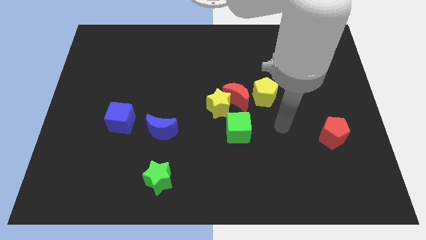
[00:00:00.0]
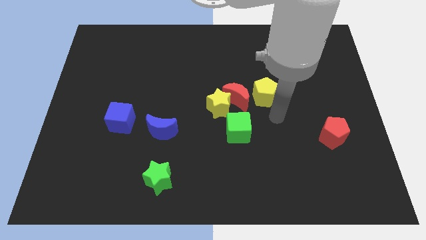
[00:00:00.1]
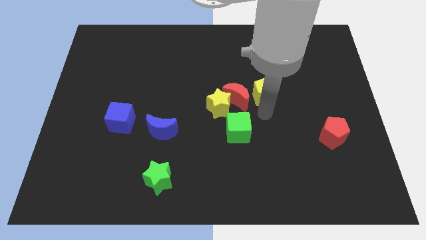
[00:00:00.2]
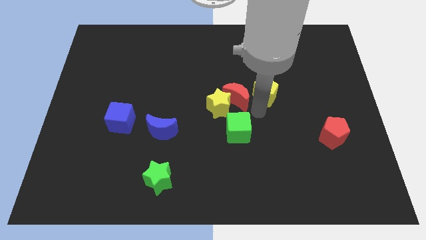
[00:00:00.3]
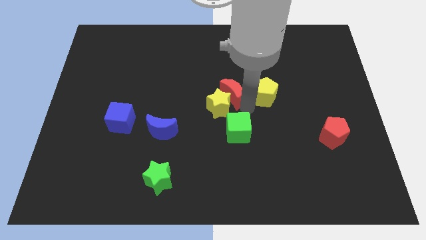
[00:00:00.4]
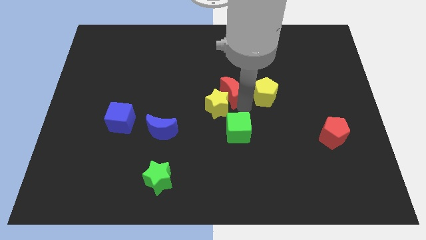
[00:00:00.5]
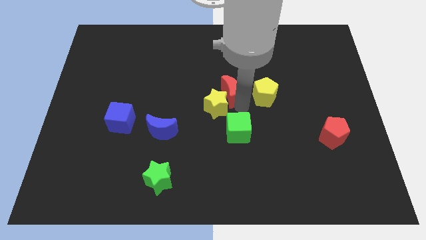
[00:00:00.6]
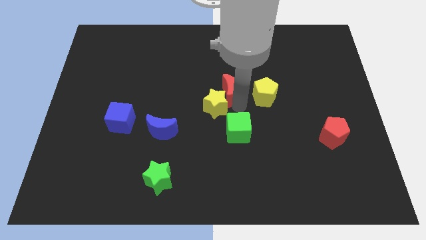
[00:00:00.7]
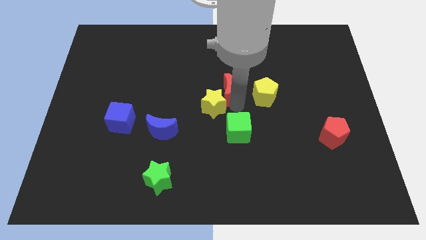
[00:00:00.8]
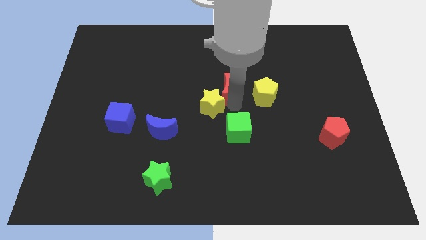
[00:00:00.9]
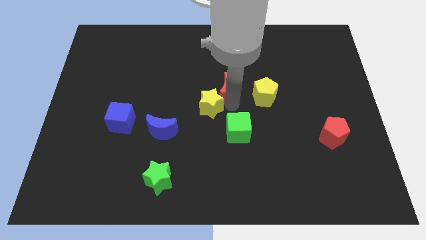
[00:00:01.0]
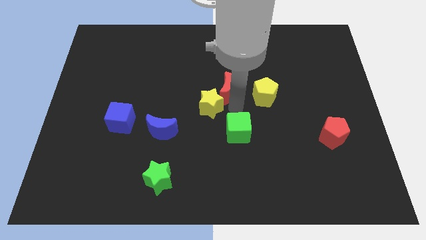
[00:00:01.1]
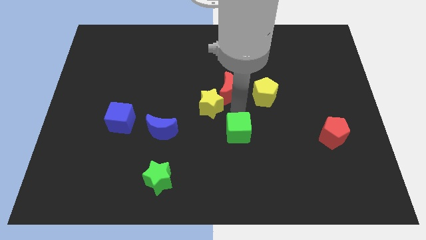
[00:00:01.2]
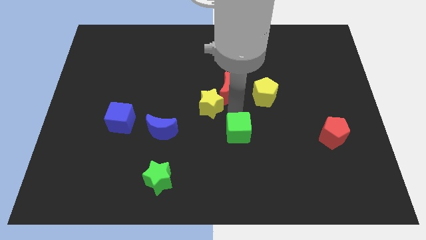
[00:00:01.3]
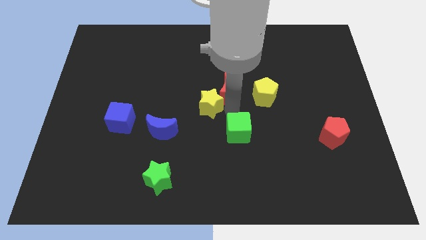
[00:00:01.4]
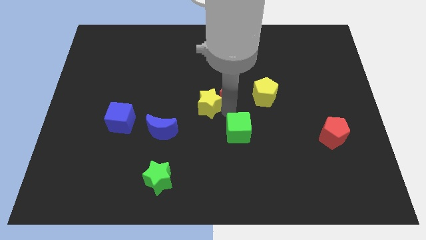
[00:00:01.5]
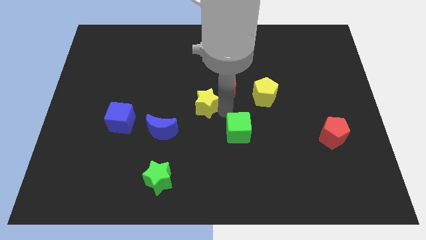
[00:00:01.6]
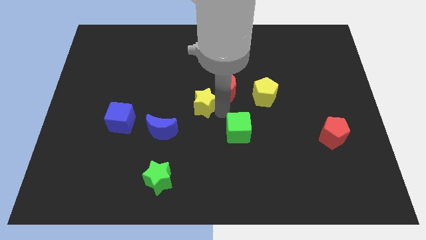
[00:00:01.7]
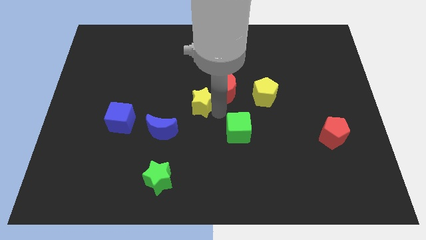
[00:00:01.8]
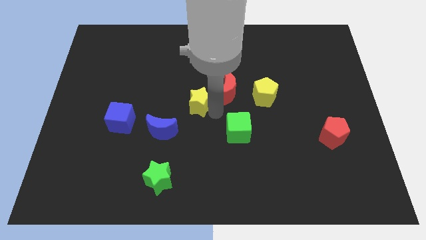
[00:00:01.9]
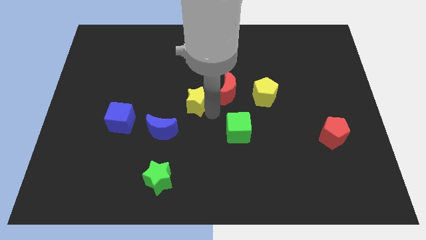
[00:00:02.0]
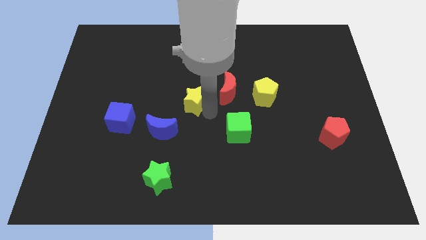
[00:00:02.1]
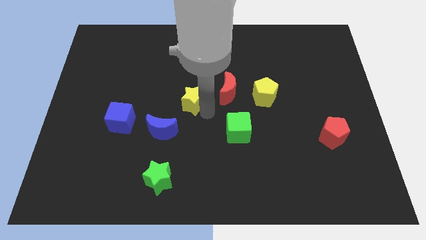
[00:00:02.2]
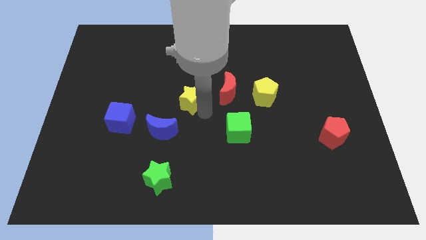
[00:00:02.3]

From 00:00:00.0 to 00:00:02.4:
move the yellow star away from the red moon and green cube

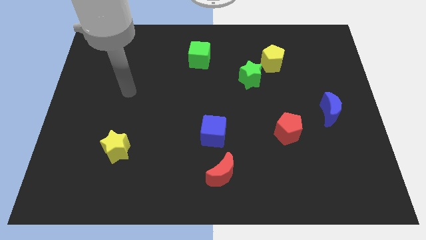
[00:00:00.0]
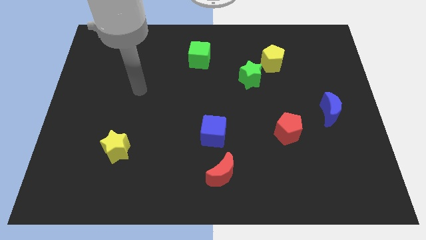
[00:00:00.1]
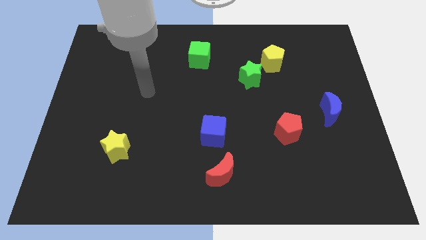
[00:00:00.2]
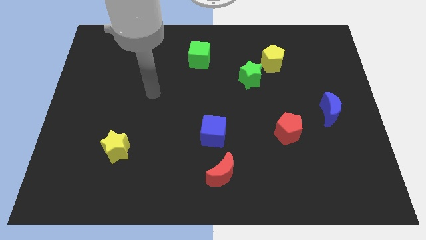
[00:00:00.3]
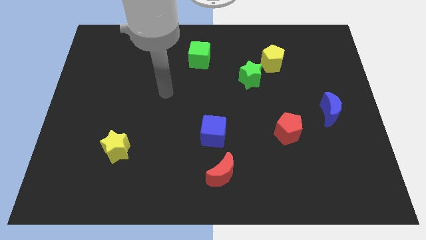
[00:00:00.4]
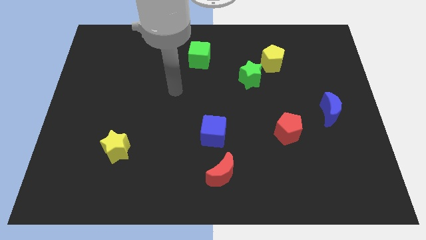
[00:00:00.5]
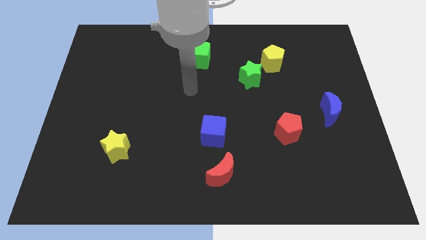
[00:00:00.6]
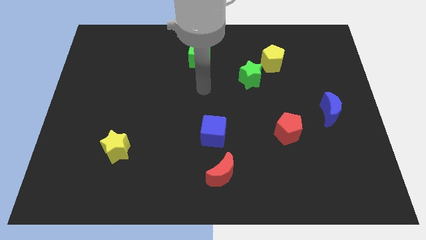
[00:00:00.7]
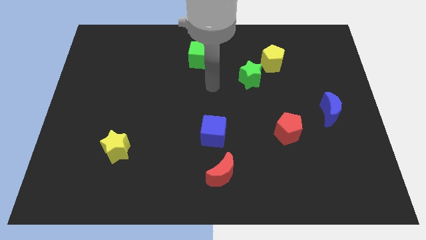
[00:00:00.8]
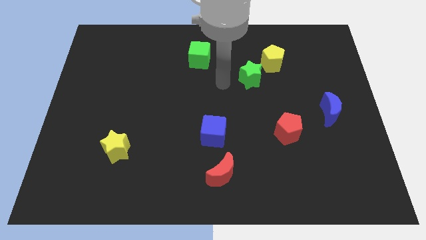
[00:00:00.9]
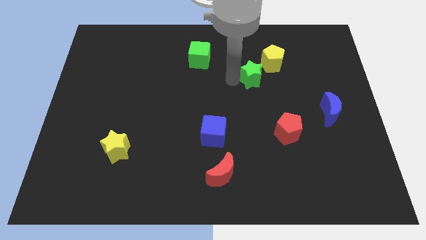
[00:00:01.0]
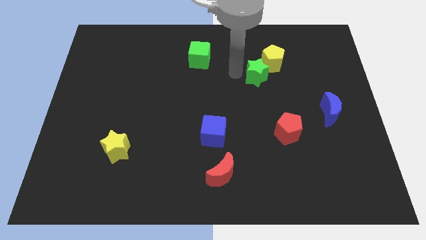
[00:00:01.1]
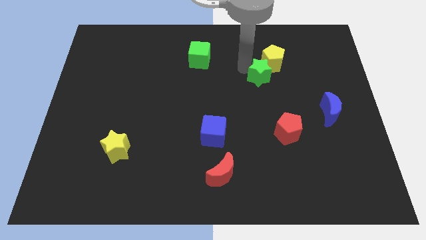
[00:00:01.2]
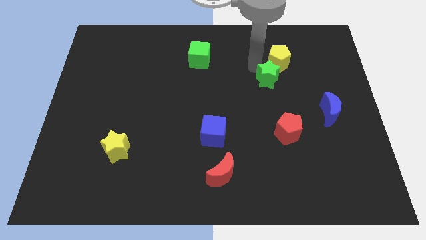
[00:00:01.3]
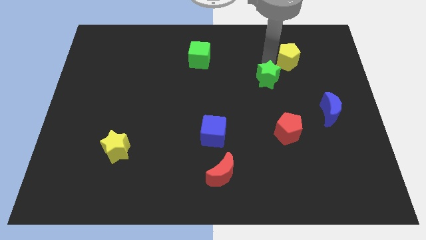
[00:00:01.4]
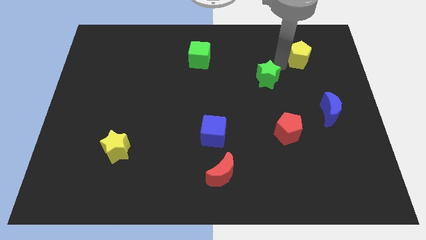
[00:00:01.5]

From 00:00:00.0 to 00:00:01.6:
separate the green star from the yellow pentagon

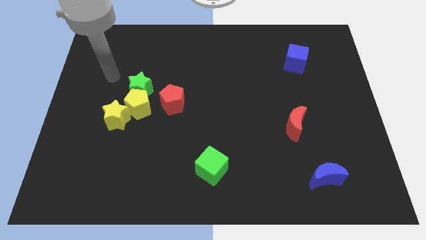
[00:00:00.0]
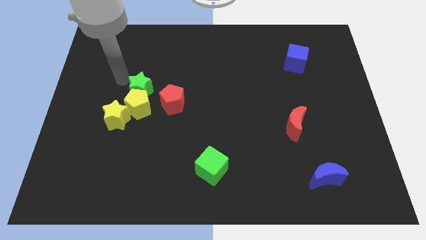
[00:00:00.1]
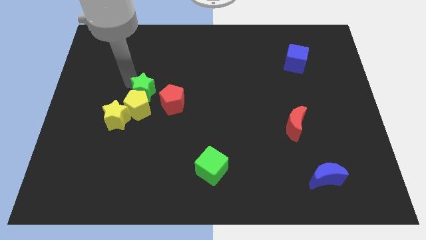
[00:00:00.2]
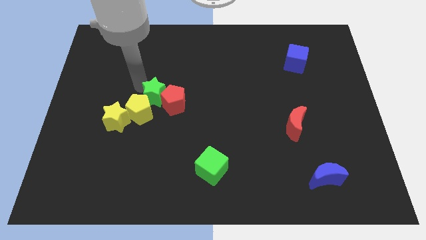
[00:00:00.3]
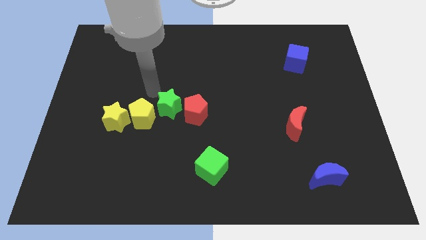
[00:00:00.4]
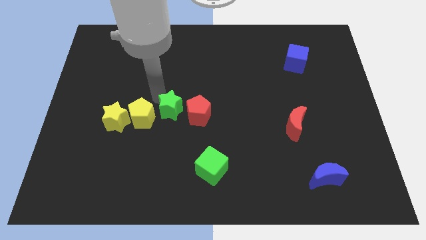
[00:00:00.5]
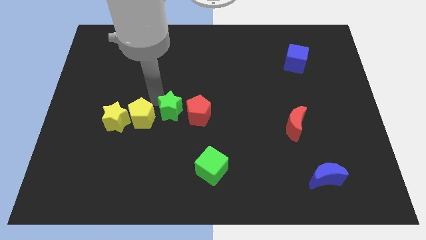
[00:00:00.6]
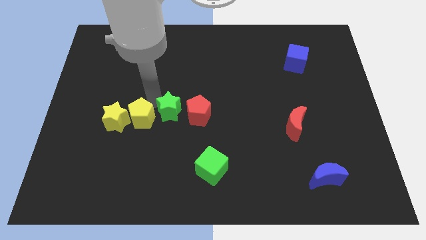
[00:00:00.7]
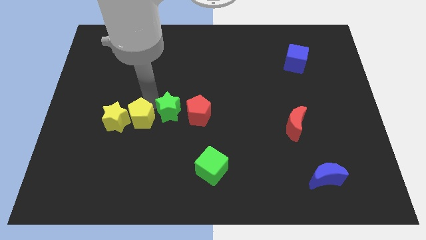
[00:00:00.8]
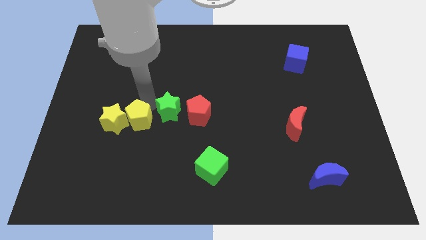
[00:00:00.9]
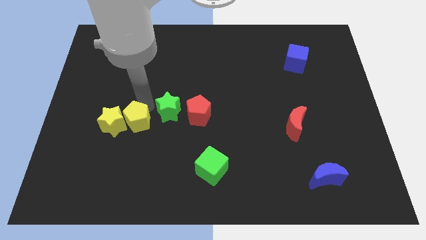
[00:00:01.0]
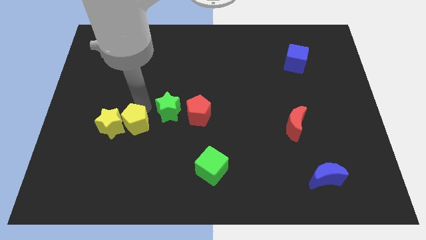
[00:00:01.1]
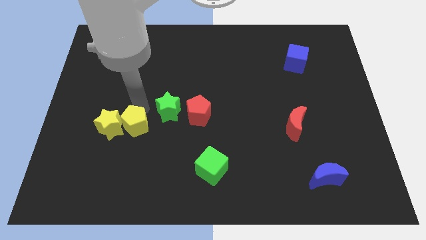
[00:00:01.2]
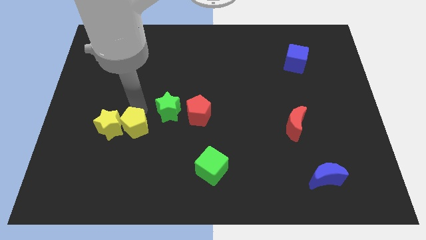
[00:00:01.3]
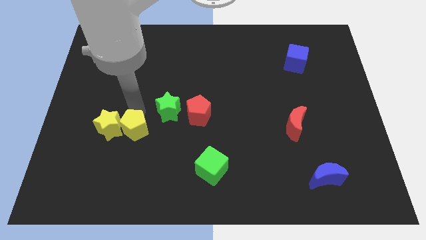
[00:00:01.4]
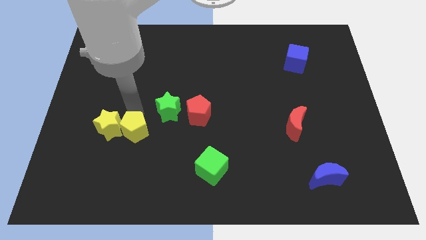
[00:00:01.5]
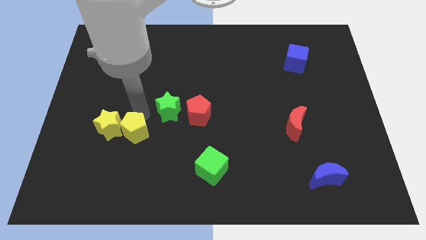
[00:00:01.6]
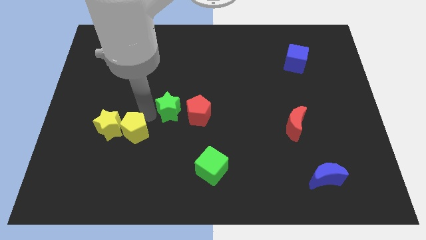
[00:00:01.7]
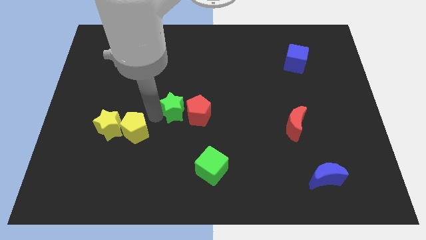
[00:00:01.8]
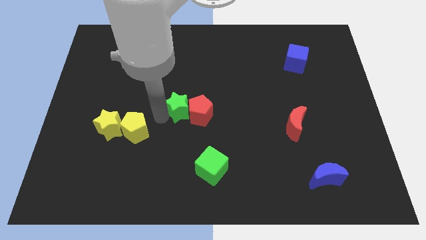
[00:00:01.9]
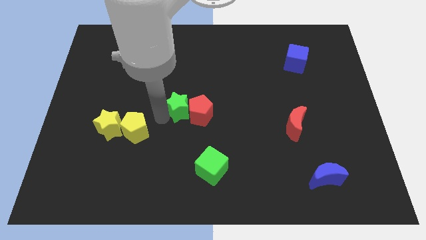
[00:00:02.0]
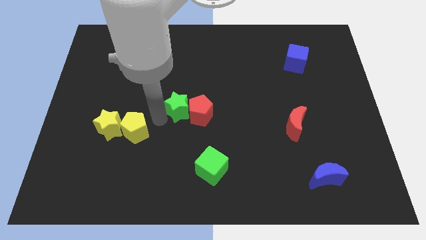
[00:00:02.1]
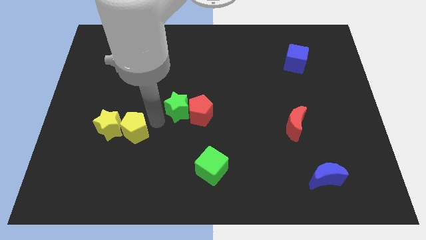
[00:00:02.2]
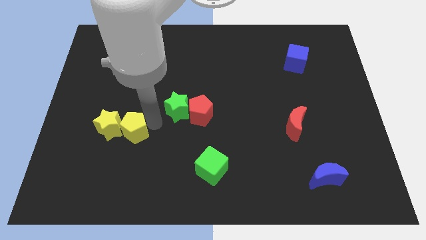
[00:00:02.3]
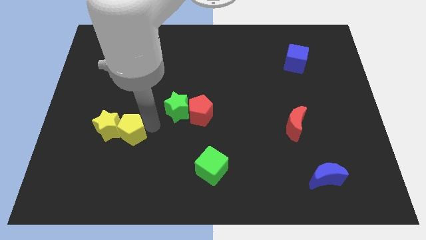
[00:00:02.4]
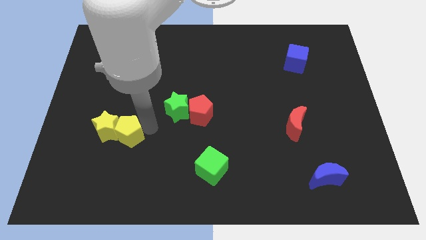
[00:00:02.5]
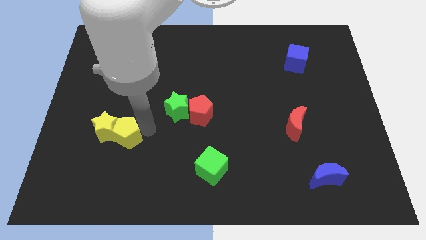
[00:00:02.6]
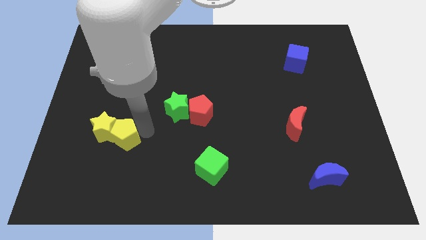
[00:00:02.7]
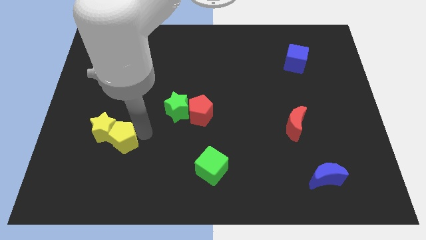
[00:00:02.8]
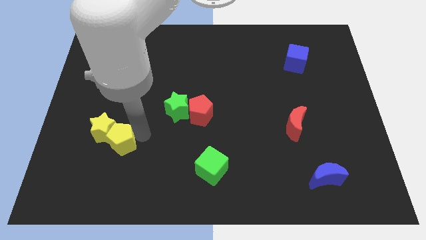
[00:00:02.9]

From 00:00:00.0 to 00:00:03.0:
separate the yellow pentagon from the group

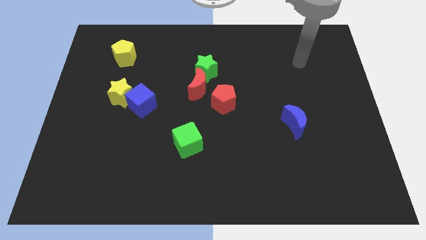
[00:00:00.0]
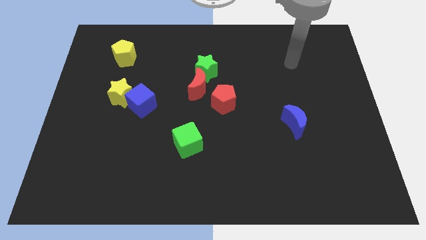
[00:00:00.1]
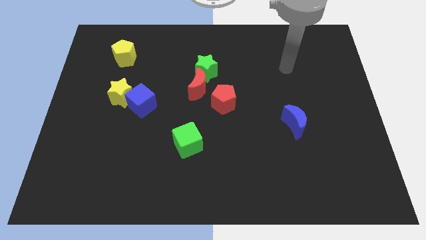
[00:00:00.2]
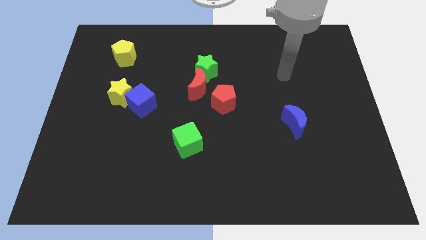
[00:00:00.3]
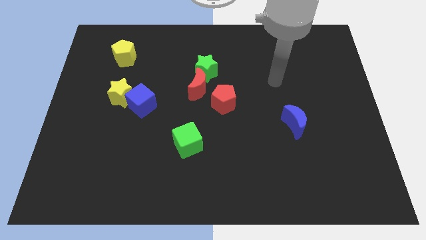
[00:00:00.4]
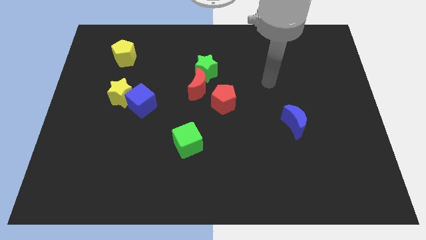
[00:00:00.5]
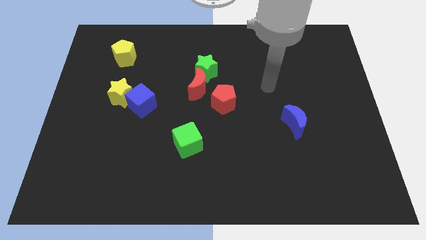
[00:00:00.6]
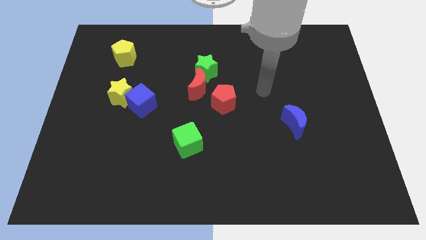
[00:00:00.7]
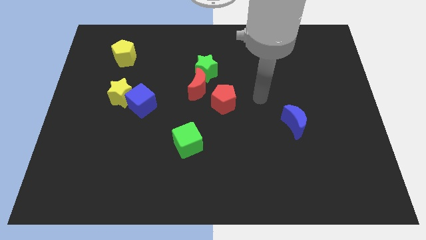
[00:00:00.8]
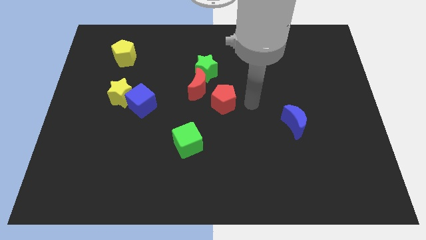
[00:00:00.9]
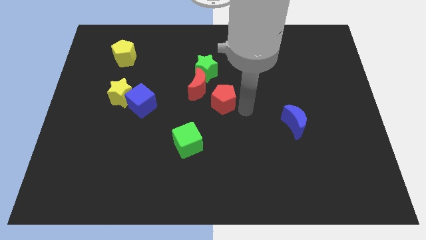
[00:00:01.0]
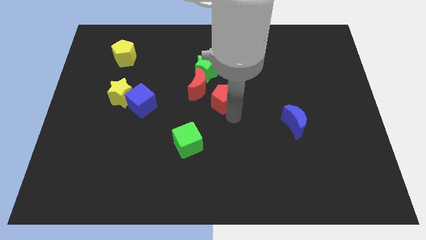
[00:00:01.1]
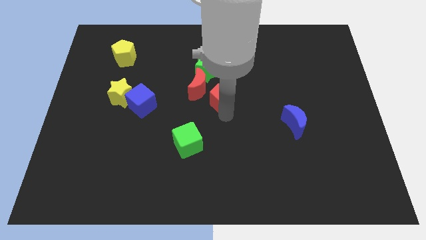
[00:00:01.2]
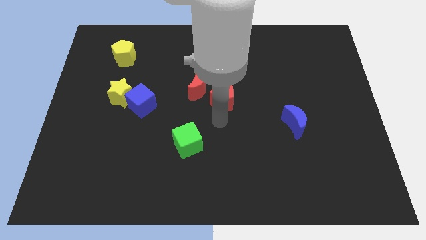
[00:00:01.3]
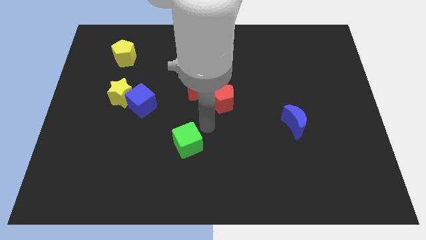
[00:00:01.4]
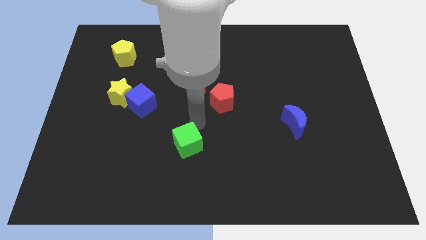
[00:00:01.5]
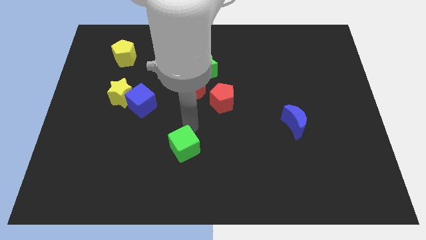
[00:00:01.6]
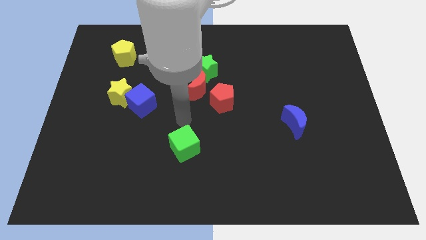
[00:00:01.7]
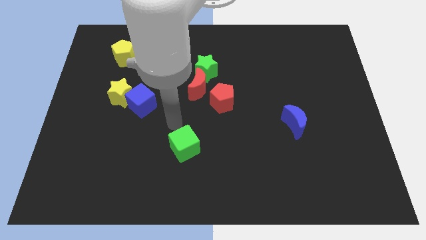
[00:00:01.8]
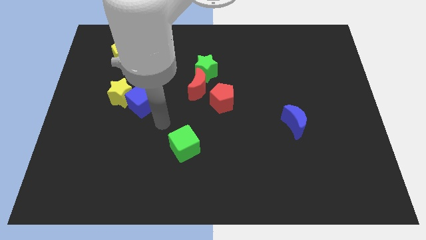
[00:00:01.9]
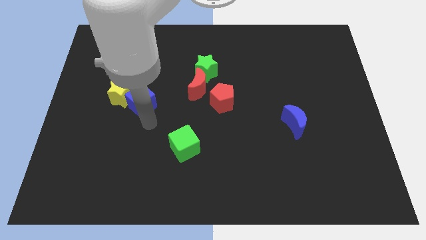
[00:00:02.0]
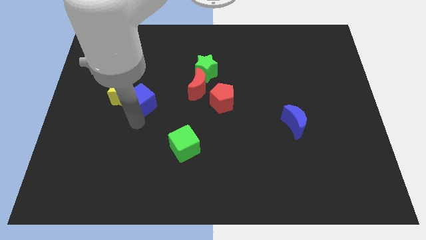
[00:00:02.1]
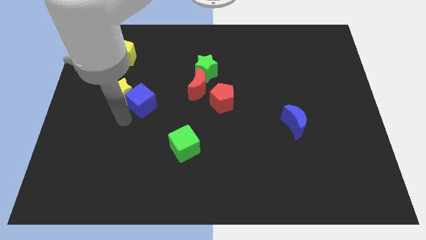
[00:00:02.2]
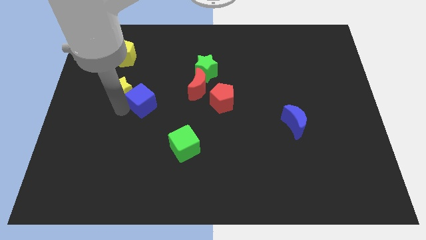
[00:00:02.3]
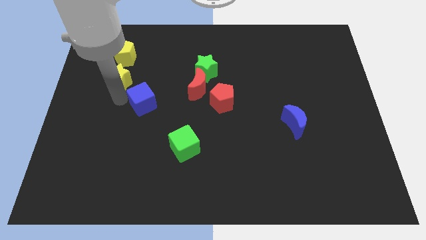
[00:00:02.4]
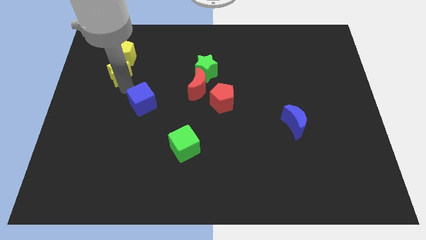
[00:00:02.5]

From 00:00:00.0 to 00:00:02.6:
separate the blue cube from the yellow star
